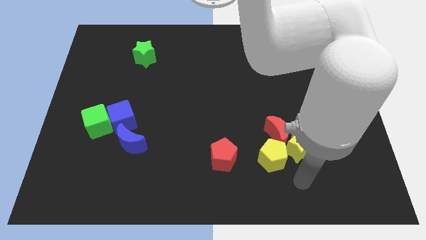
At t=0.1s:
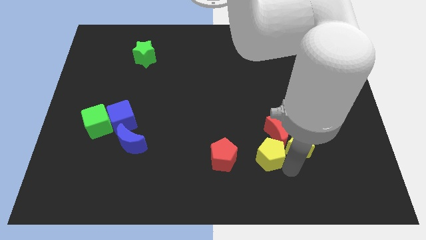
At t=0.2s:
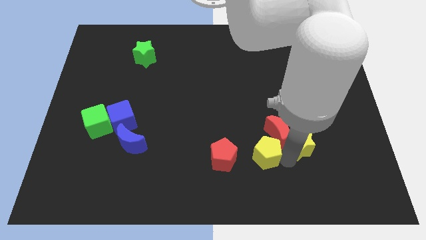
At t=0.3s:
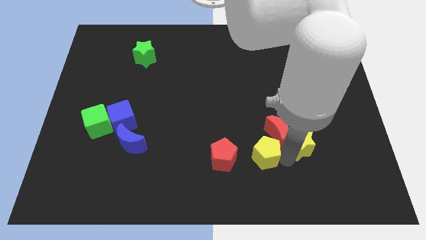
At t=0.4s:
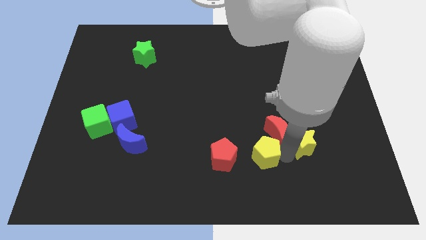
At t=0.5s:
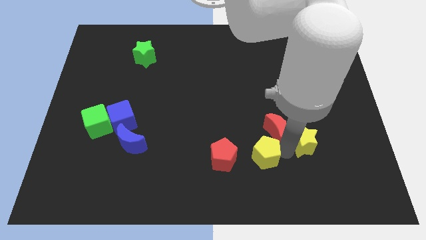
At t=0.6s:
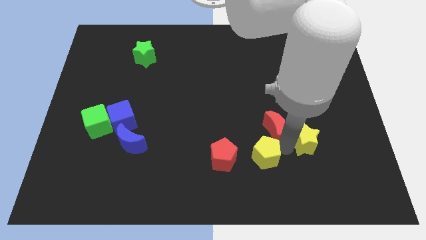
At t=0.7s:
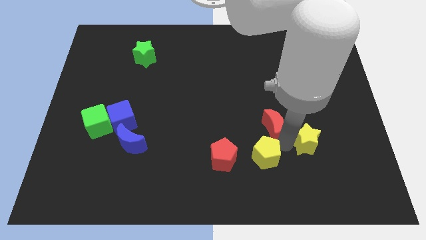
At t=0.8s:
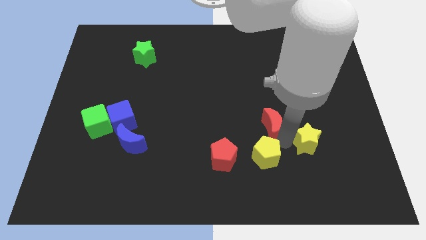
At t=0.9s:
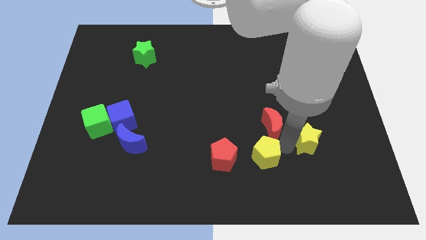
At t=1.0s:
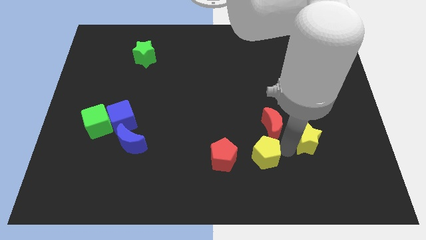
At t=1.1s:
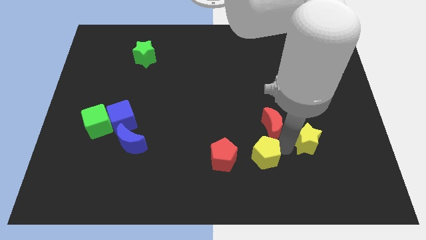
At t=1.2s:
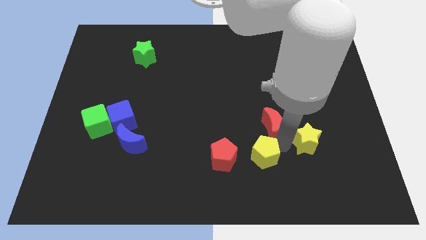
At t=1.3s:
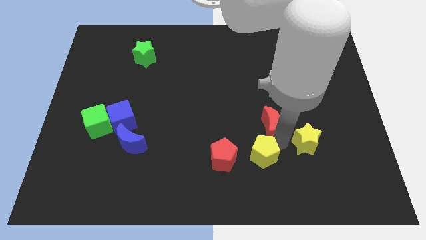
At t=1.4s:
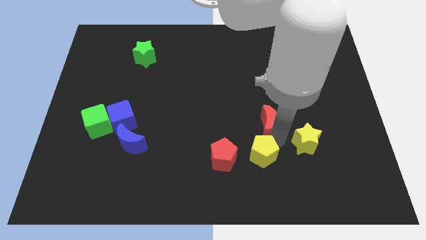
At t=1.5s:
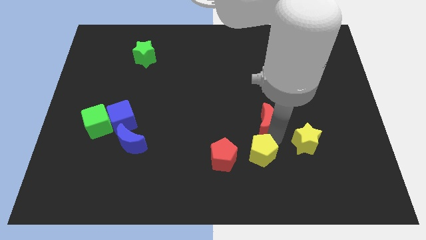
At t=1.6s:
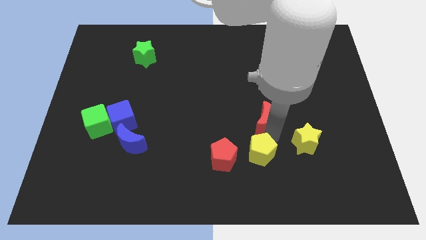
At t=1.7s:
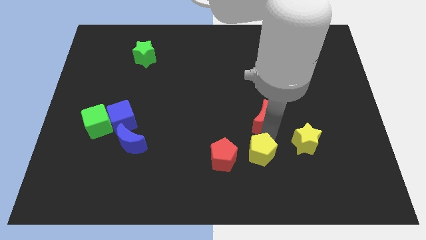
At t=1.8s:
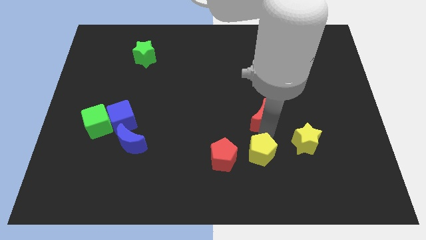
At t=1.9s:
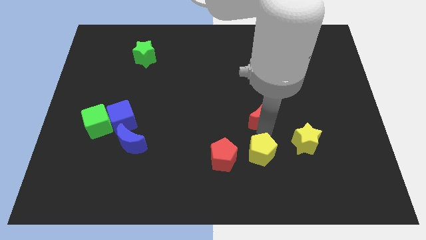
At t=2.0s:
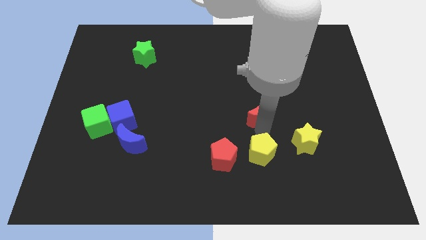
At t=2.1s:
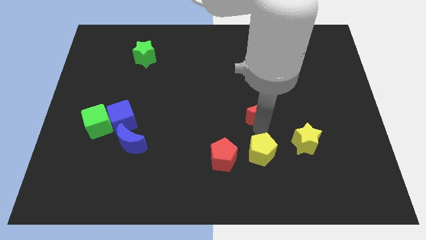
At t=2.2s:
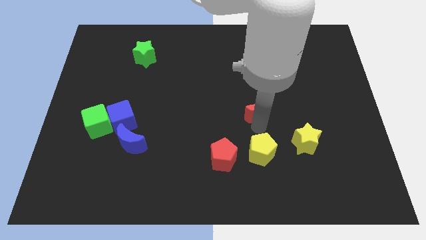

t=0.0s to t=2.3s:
move the red moon away from the yellow star and yellow pentagon

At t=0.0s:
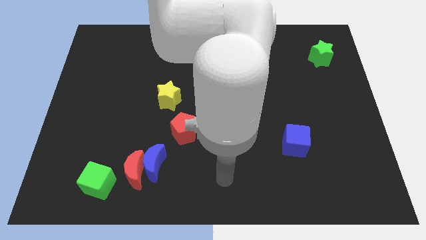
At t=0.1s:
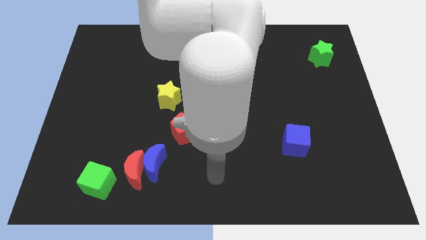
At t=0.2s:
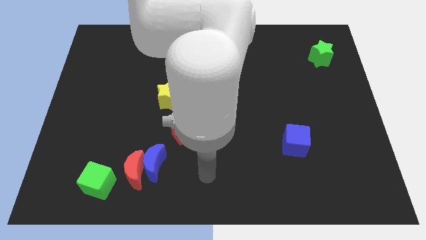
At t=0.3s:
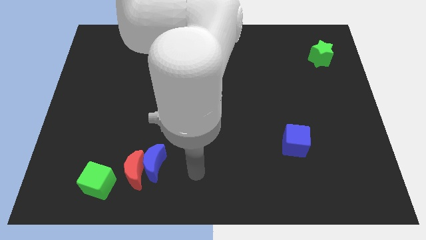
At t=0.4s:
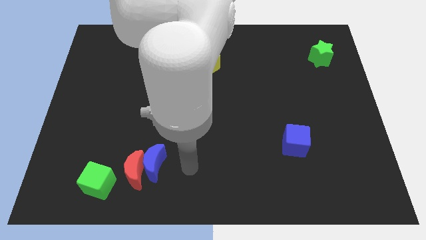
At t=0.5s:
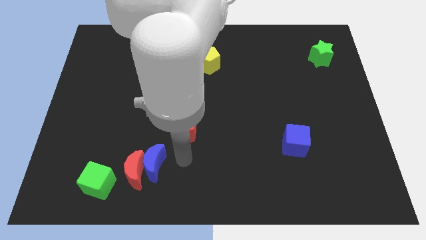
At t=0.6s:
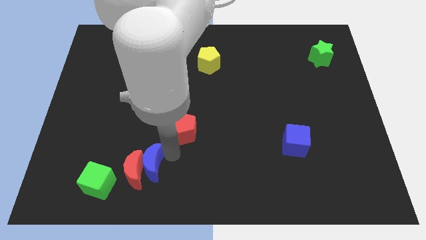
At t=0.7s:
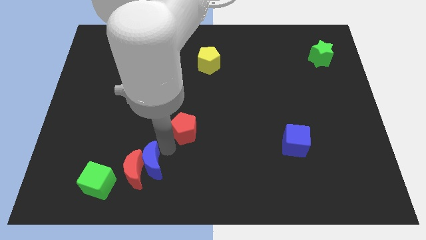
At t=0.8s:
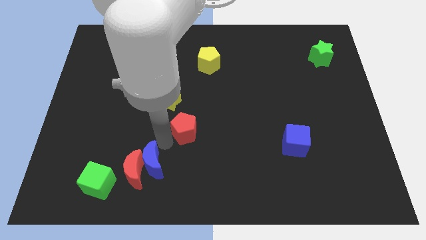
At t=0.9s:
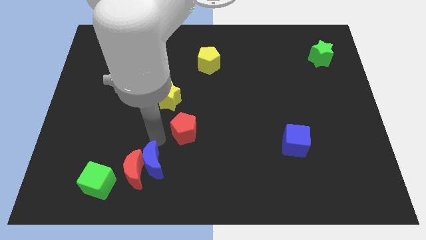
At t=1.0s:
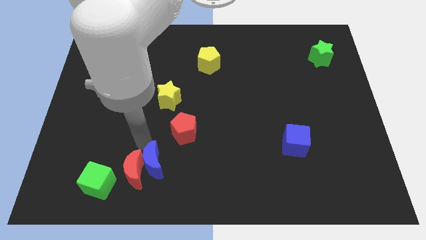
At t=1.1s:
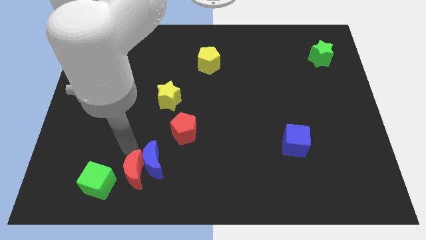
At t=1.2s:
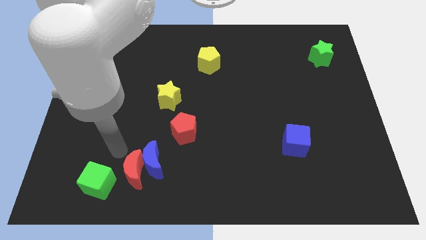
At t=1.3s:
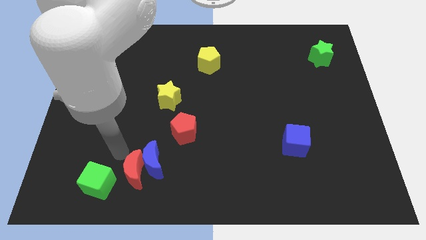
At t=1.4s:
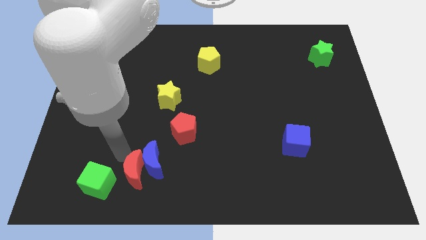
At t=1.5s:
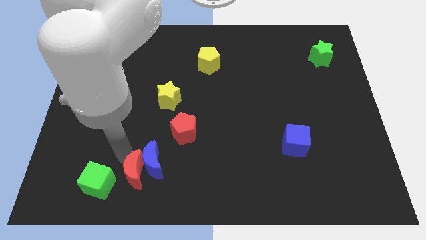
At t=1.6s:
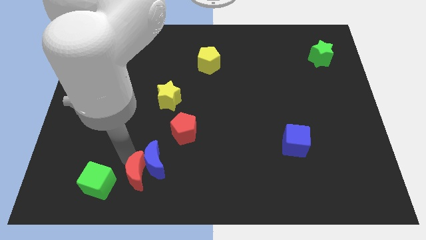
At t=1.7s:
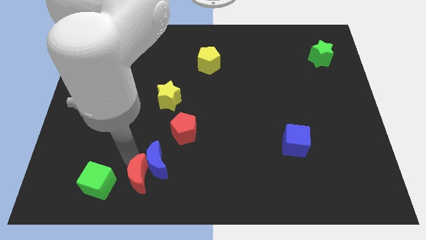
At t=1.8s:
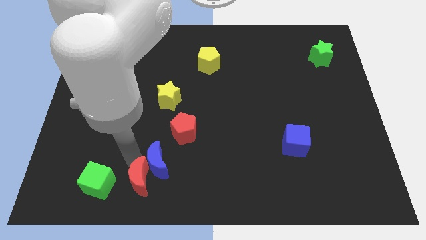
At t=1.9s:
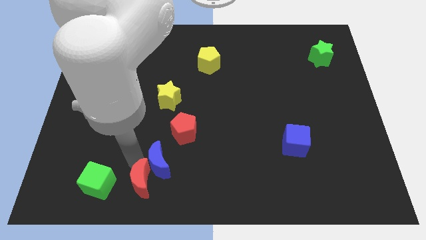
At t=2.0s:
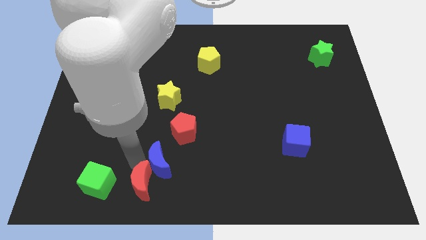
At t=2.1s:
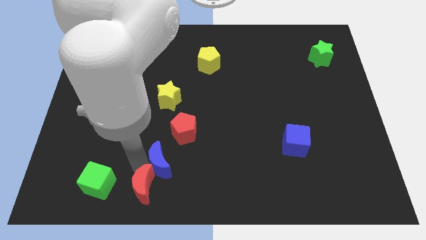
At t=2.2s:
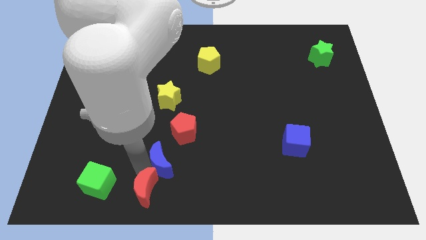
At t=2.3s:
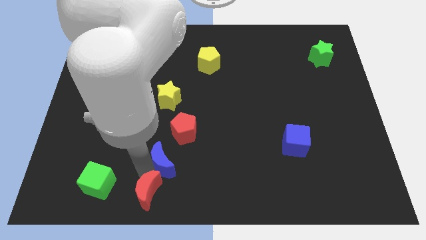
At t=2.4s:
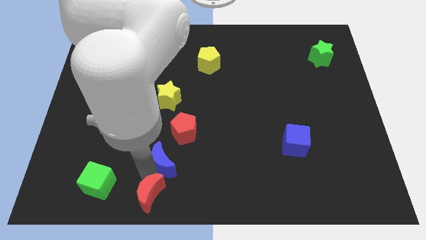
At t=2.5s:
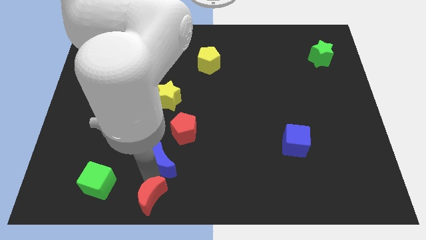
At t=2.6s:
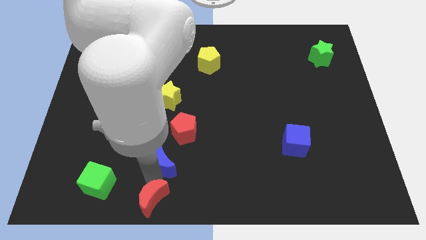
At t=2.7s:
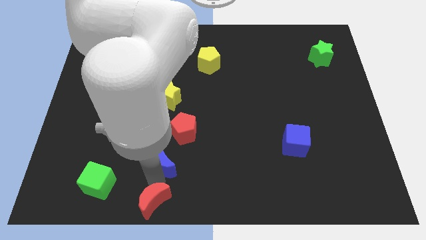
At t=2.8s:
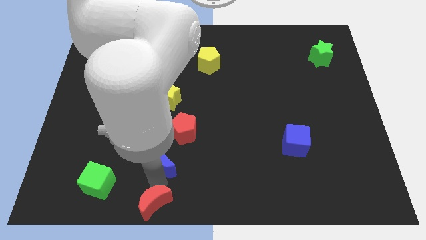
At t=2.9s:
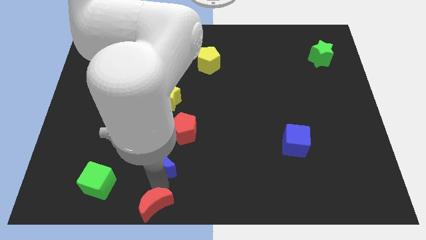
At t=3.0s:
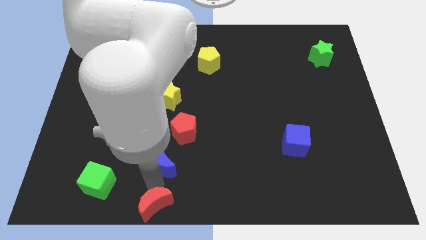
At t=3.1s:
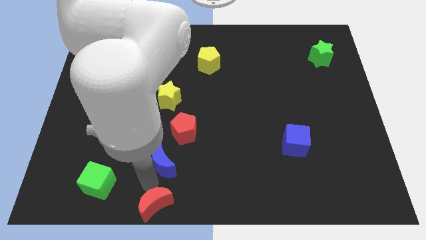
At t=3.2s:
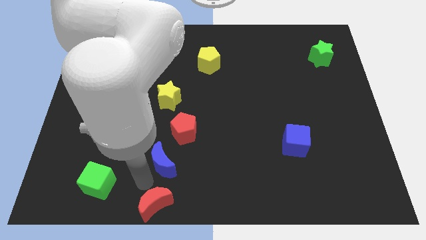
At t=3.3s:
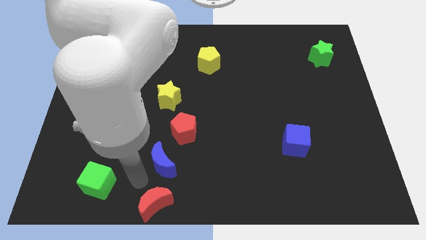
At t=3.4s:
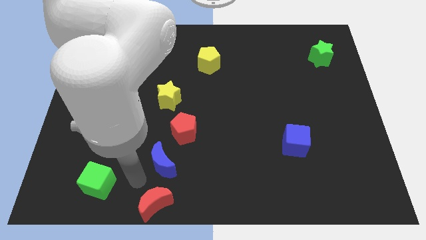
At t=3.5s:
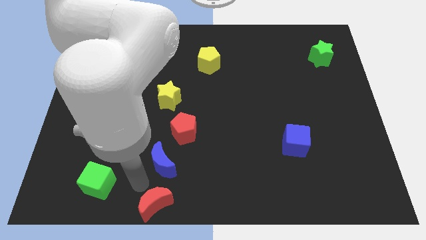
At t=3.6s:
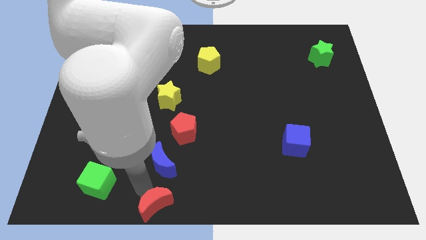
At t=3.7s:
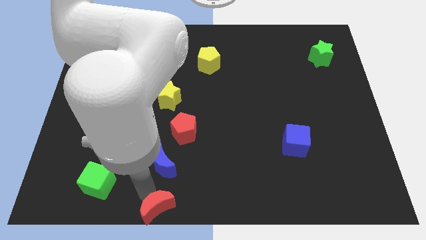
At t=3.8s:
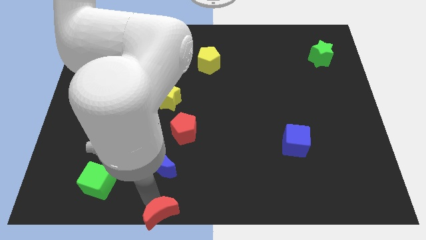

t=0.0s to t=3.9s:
pull the red moon apart from the blue moon and green cube

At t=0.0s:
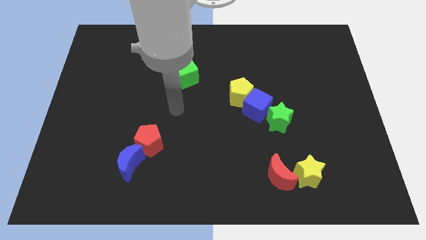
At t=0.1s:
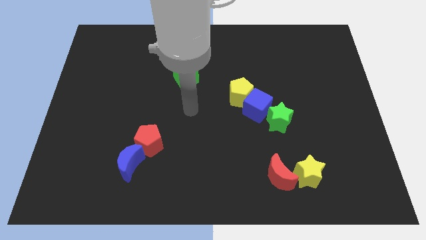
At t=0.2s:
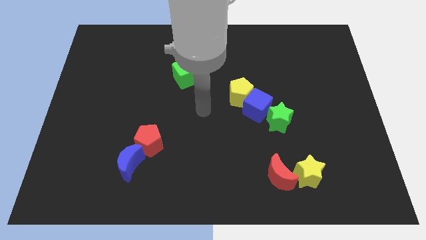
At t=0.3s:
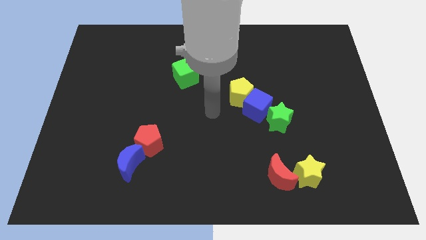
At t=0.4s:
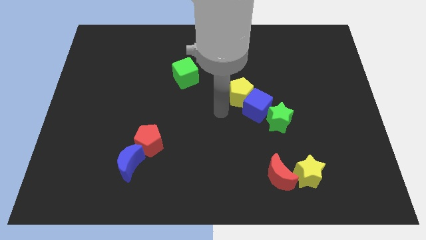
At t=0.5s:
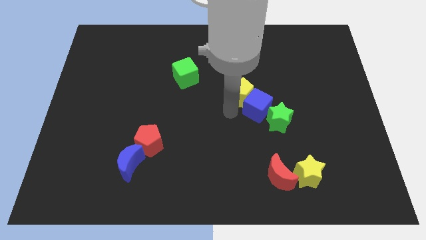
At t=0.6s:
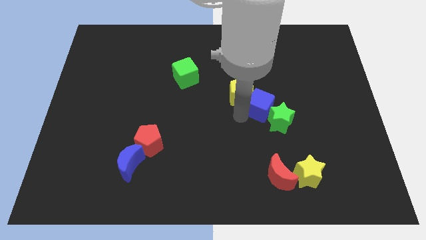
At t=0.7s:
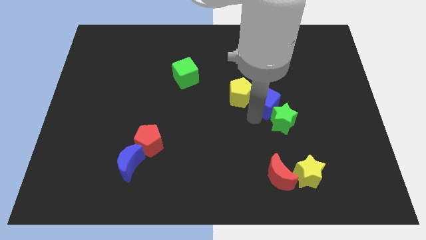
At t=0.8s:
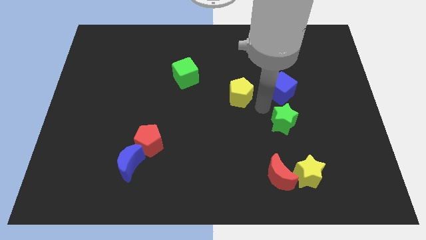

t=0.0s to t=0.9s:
pull the yellow pentagon apart from the blue cube

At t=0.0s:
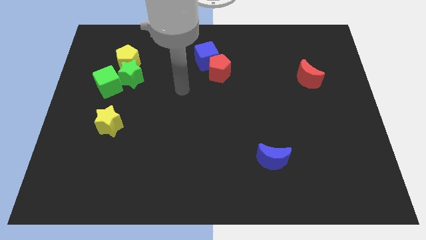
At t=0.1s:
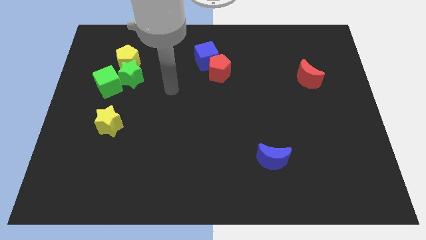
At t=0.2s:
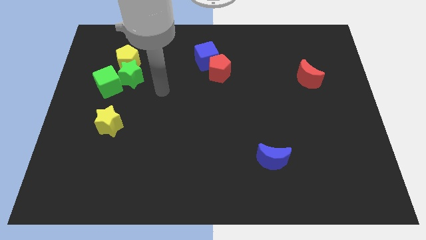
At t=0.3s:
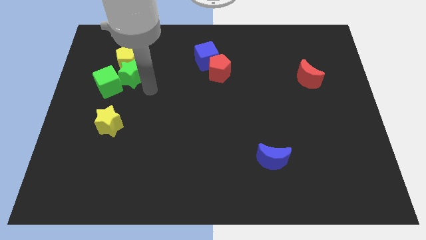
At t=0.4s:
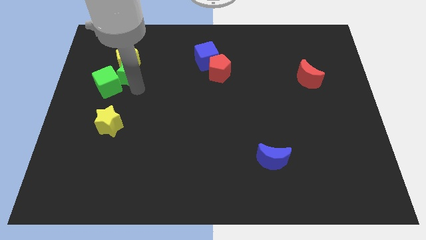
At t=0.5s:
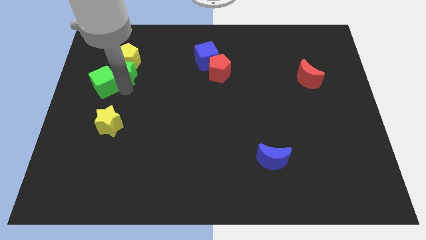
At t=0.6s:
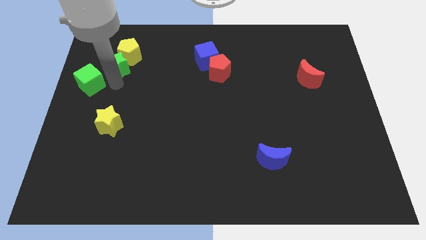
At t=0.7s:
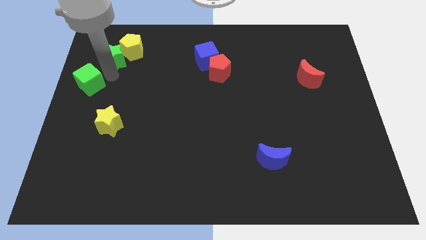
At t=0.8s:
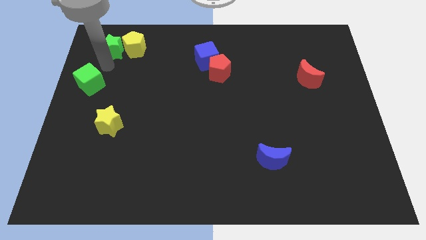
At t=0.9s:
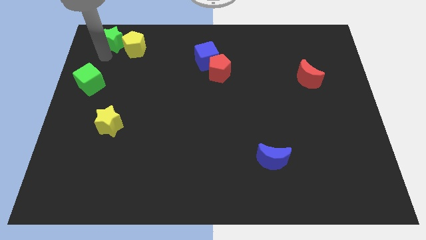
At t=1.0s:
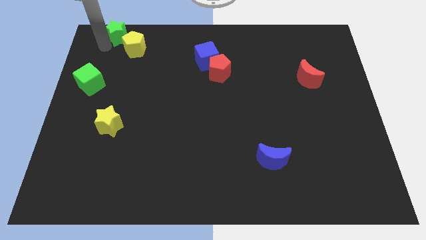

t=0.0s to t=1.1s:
pull the green star apart from the yellow pentagon and green cube

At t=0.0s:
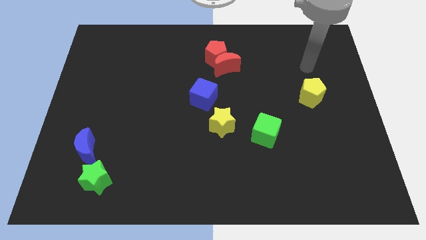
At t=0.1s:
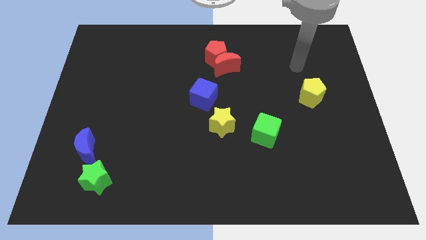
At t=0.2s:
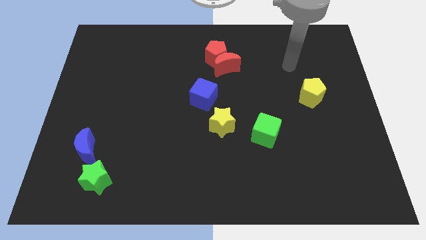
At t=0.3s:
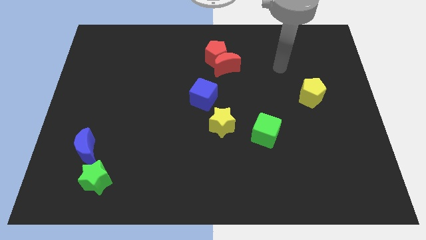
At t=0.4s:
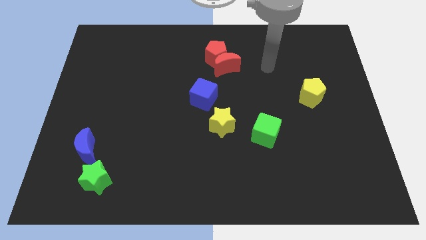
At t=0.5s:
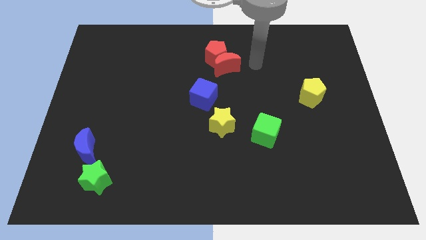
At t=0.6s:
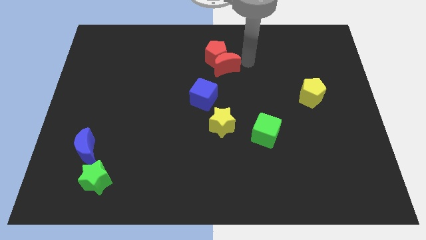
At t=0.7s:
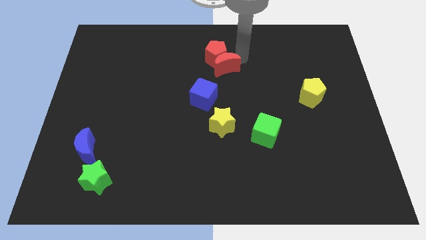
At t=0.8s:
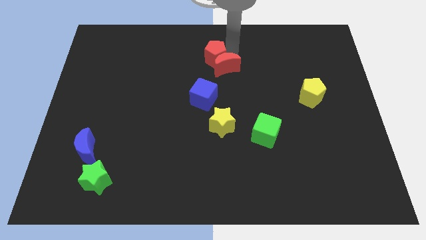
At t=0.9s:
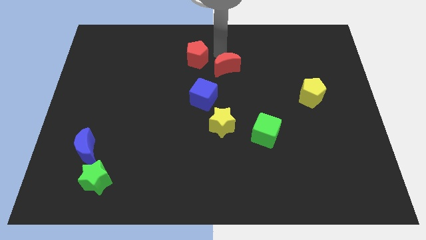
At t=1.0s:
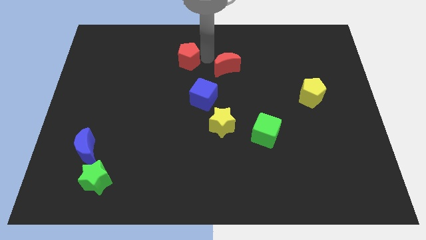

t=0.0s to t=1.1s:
separate the red moon from the red pentagon
